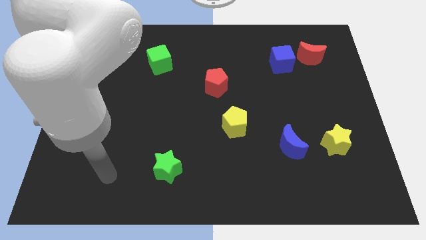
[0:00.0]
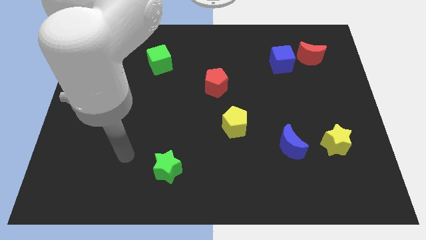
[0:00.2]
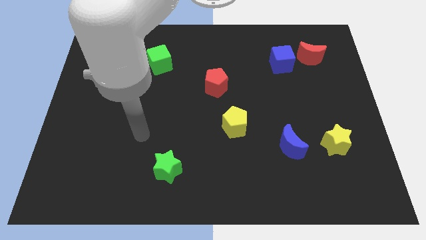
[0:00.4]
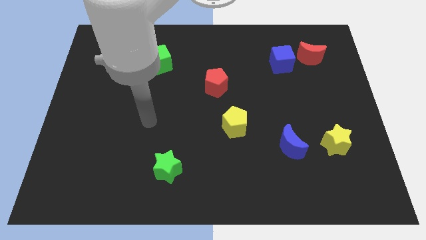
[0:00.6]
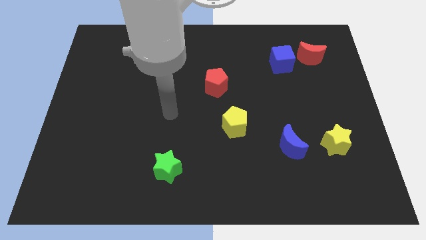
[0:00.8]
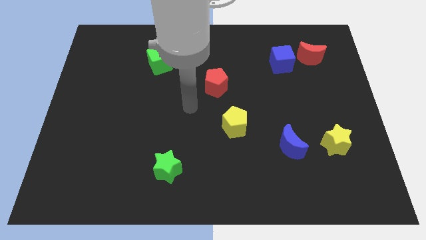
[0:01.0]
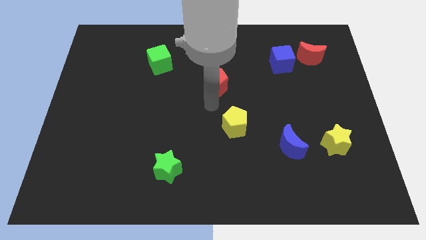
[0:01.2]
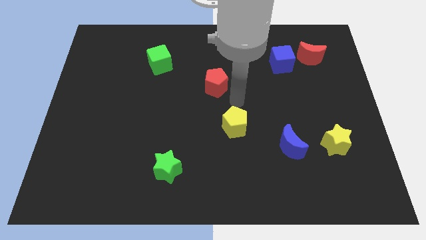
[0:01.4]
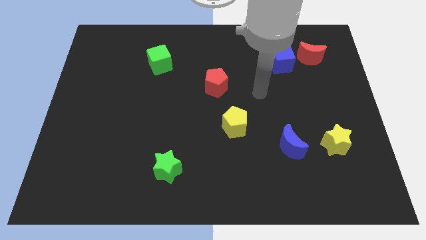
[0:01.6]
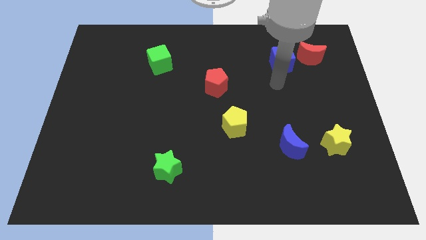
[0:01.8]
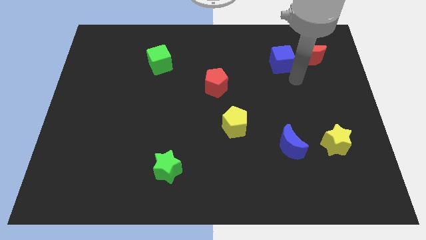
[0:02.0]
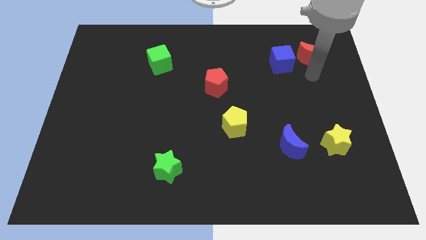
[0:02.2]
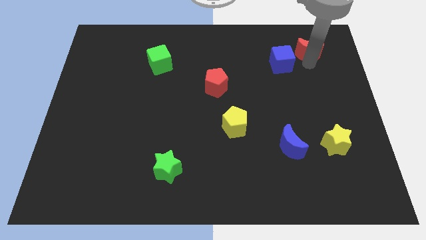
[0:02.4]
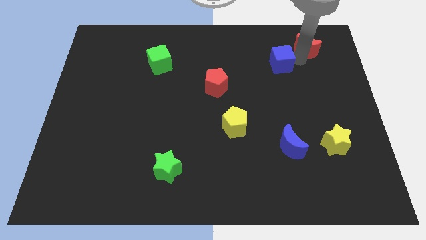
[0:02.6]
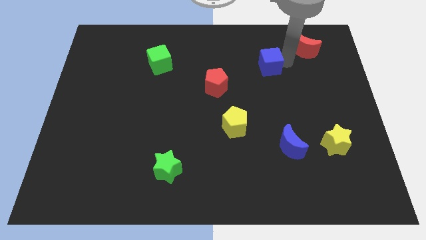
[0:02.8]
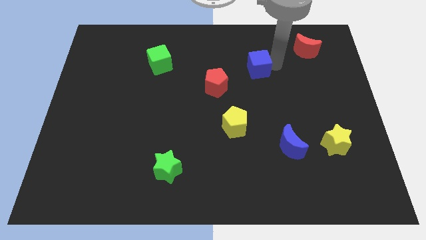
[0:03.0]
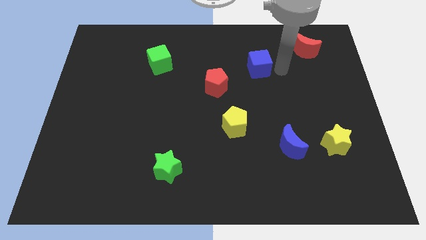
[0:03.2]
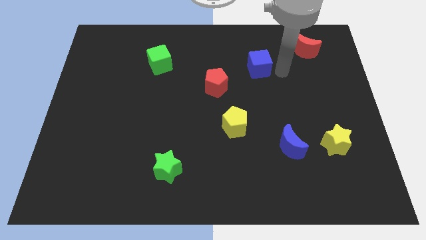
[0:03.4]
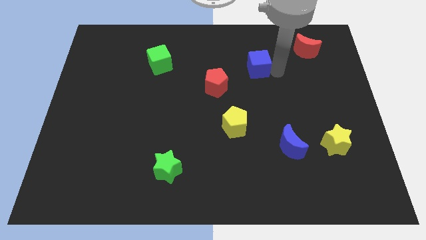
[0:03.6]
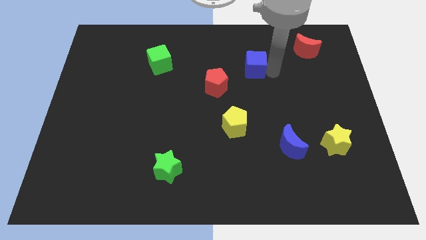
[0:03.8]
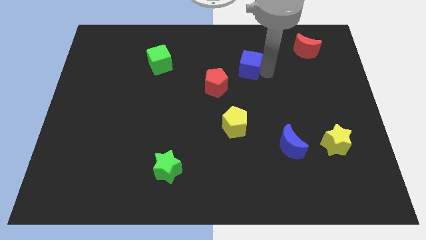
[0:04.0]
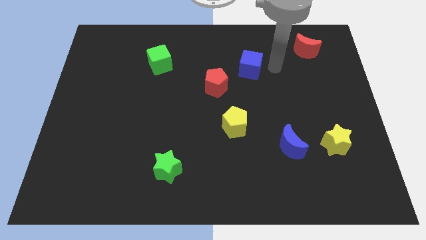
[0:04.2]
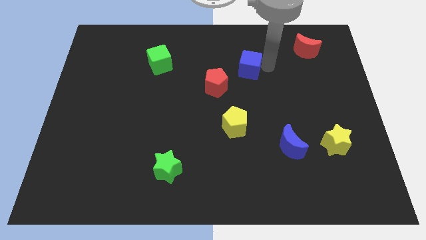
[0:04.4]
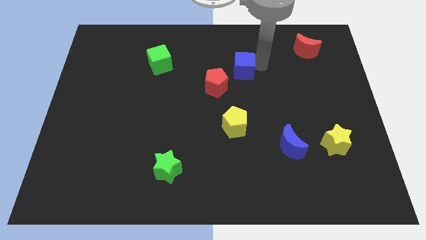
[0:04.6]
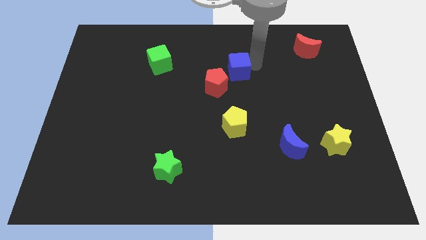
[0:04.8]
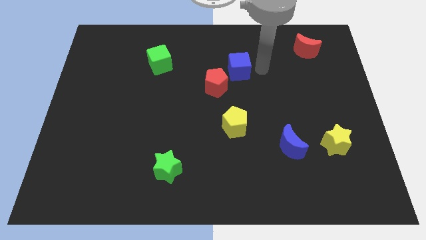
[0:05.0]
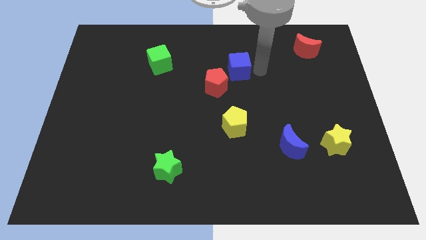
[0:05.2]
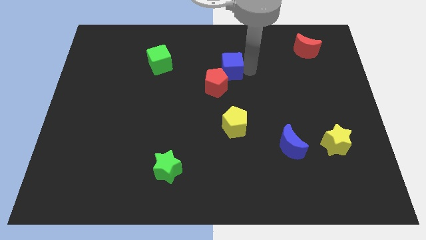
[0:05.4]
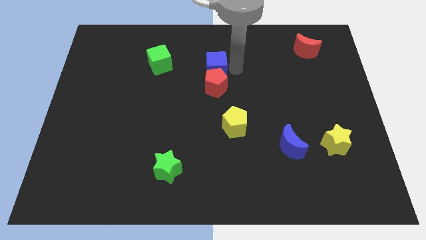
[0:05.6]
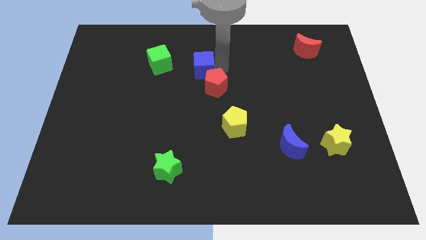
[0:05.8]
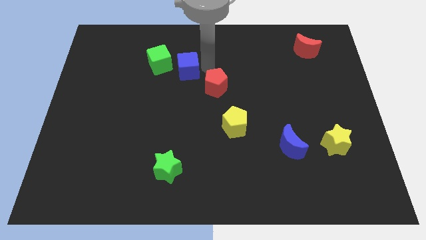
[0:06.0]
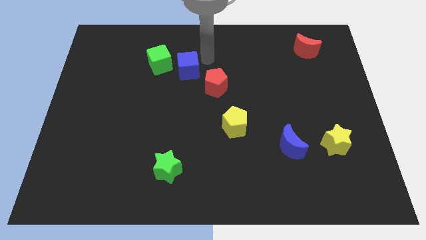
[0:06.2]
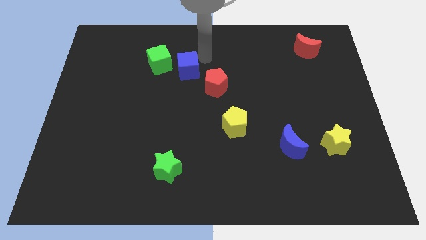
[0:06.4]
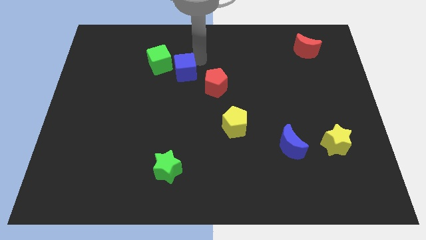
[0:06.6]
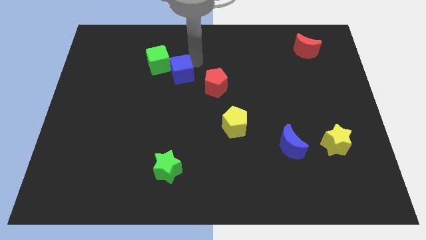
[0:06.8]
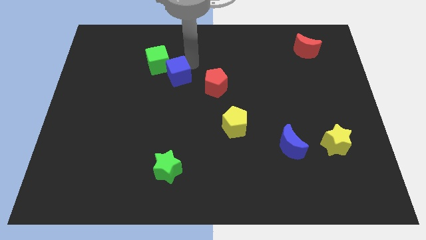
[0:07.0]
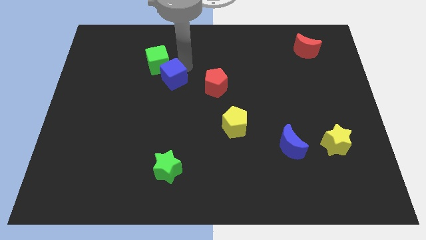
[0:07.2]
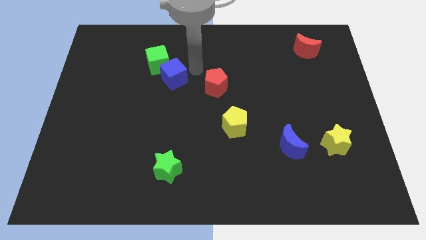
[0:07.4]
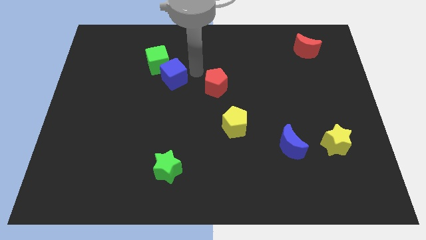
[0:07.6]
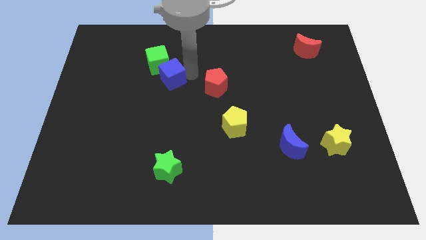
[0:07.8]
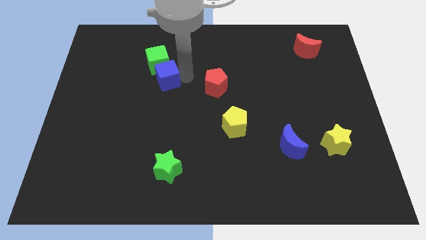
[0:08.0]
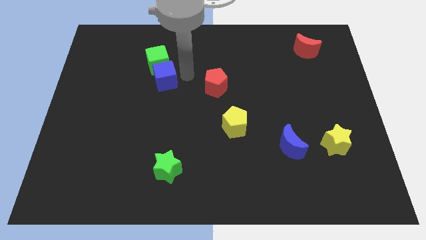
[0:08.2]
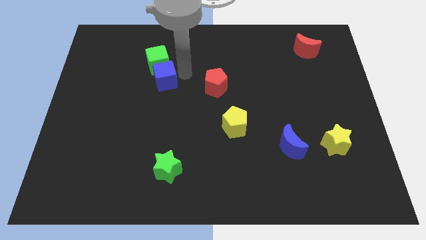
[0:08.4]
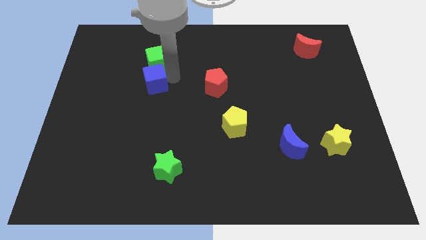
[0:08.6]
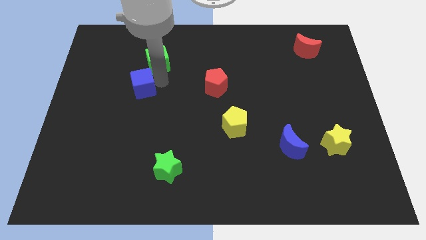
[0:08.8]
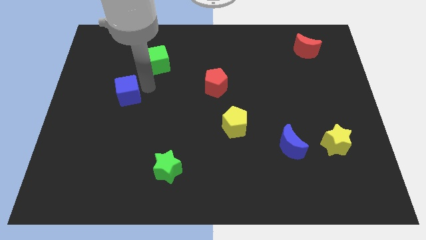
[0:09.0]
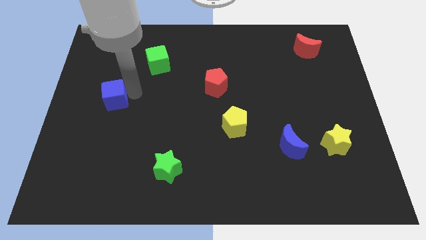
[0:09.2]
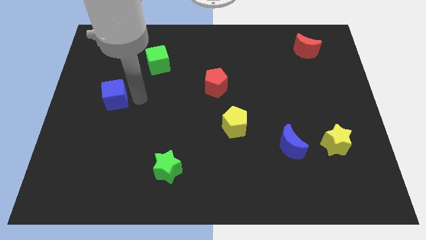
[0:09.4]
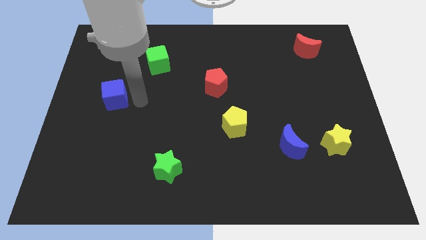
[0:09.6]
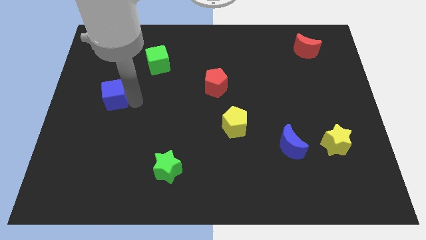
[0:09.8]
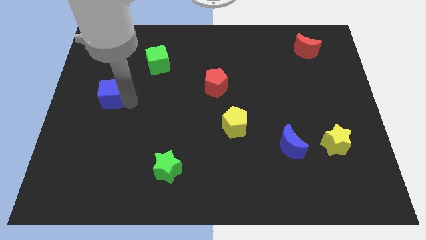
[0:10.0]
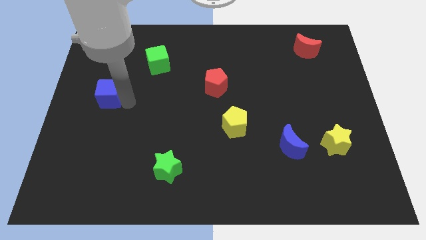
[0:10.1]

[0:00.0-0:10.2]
push the blue cube to the left side

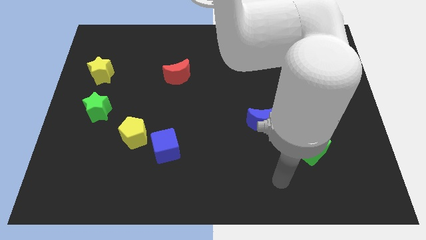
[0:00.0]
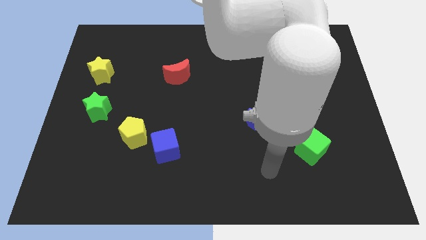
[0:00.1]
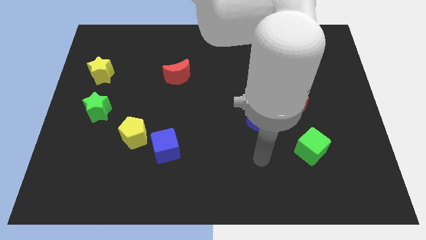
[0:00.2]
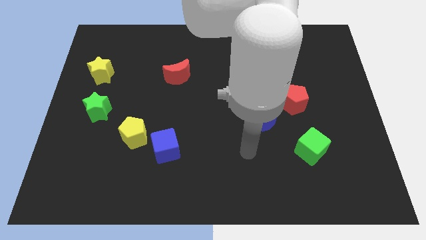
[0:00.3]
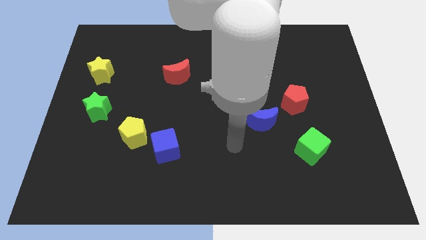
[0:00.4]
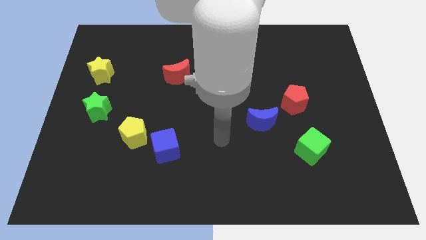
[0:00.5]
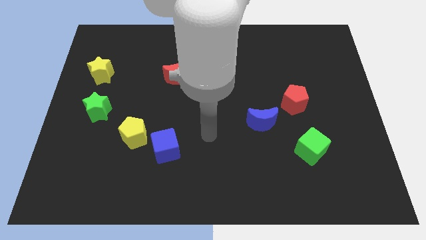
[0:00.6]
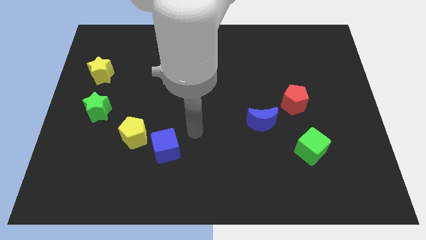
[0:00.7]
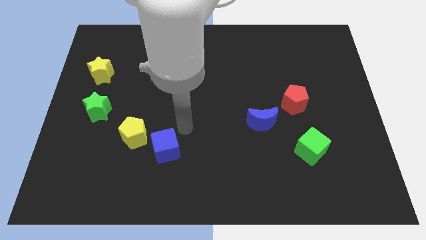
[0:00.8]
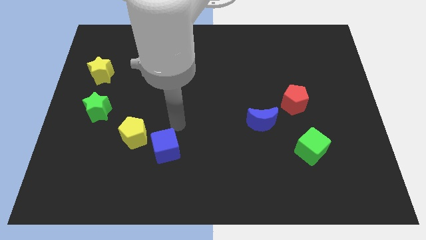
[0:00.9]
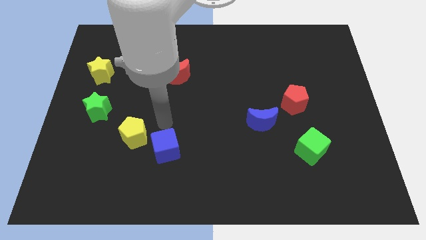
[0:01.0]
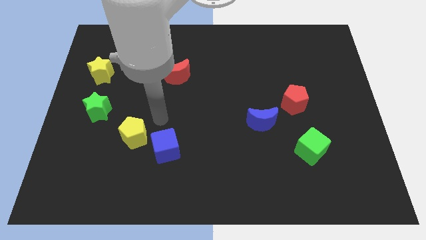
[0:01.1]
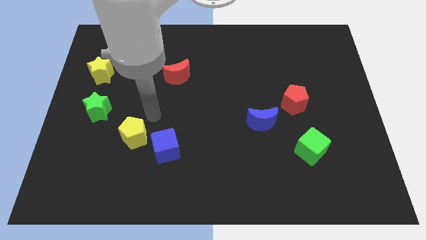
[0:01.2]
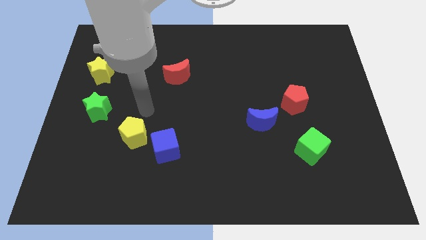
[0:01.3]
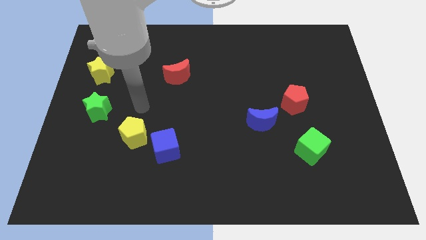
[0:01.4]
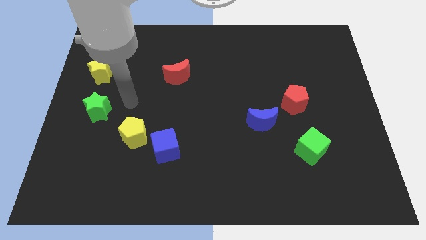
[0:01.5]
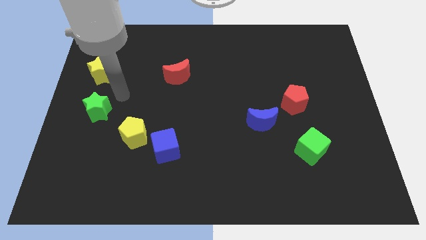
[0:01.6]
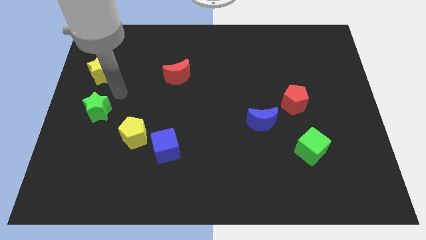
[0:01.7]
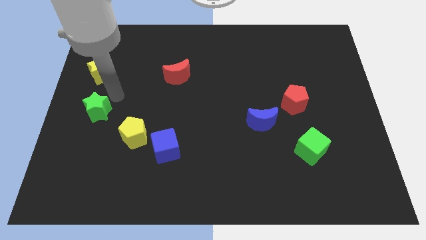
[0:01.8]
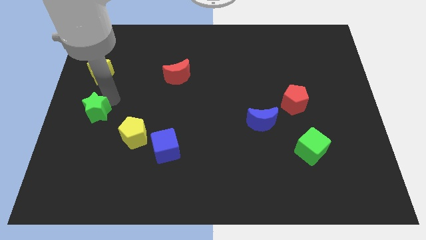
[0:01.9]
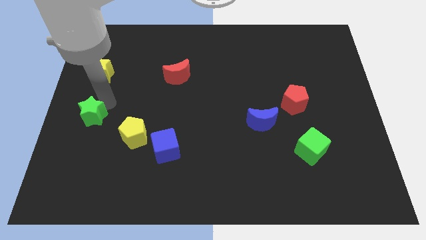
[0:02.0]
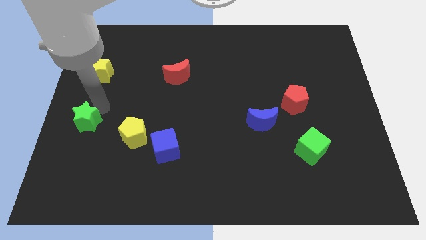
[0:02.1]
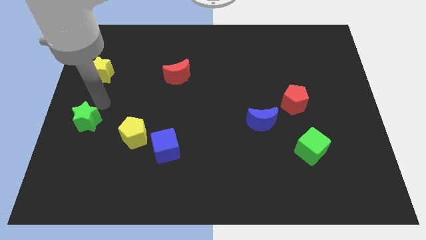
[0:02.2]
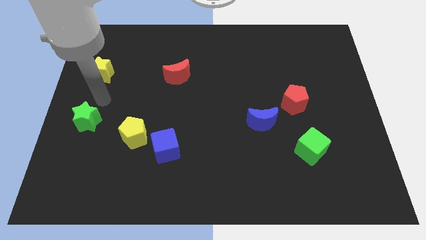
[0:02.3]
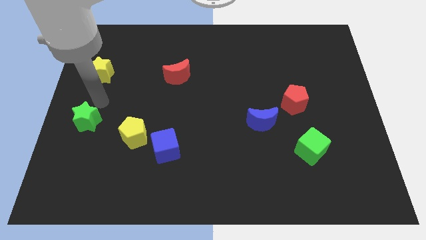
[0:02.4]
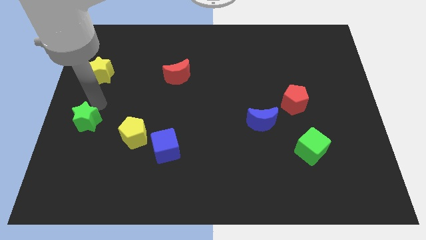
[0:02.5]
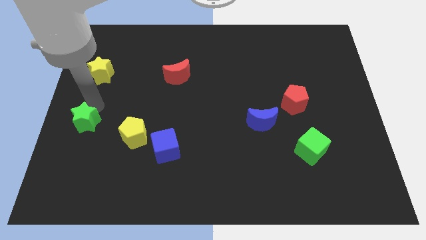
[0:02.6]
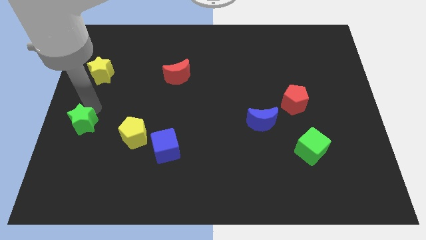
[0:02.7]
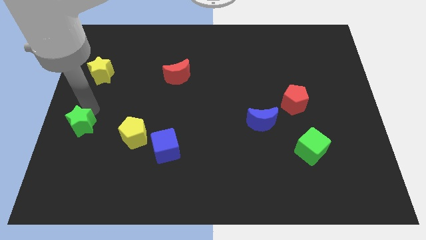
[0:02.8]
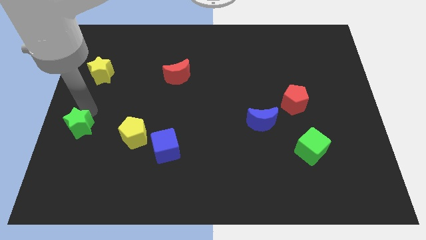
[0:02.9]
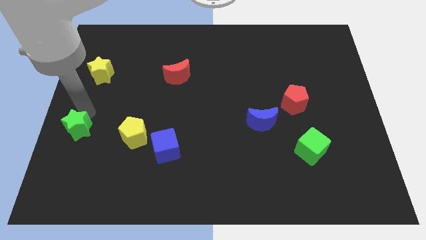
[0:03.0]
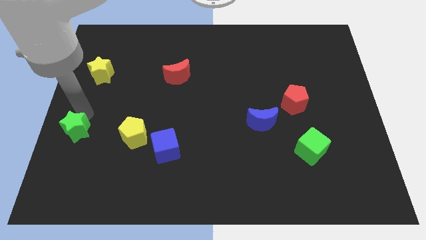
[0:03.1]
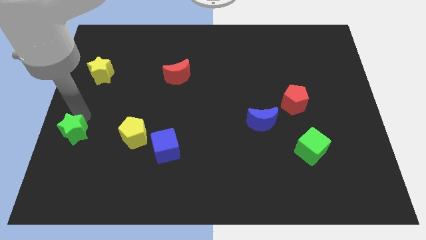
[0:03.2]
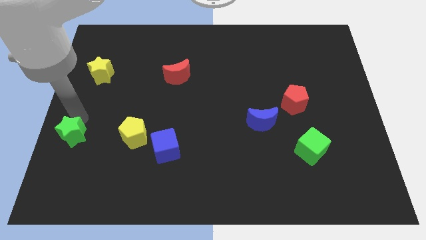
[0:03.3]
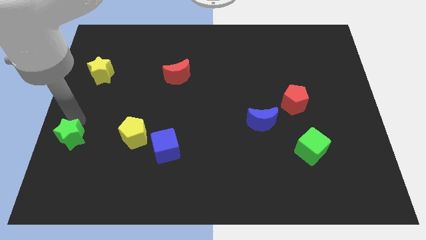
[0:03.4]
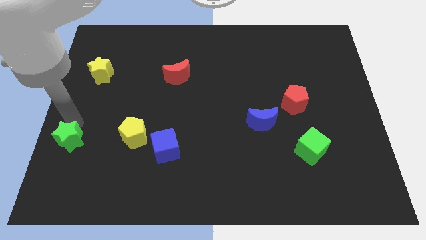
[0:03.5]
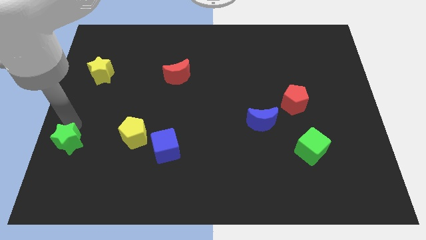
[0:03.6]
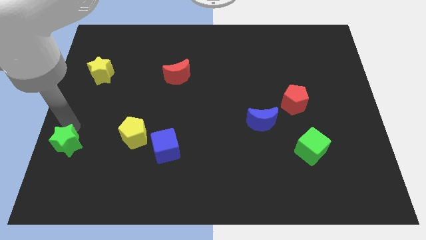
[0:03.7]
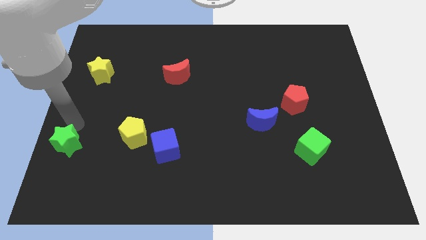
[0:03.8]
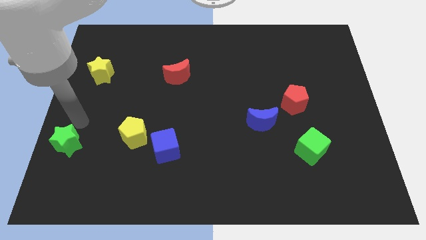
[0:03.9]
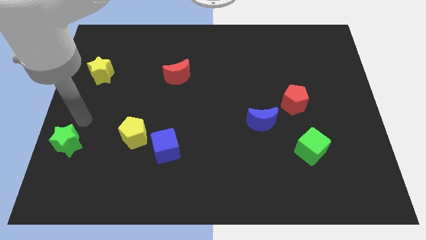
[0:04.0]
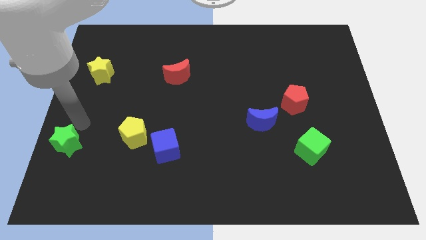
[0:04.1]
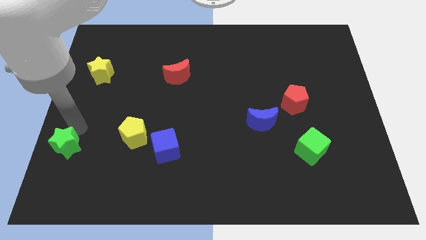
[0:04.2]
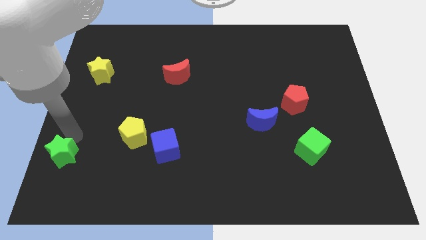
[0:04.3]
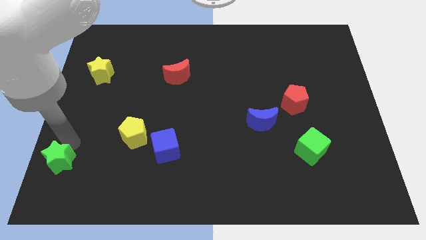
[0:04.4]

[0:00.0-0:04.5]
push the green star to the lower left corner
